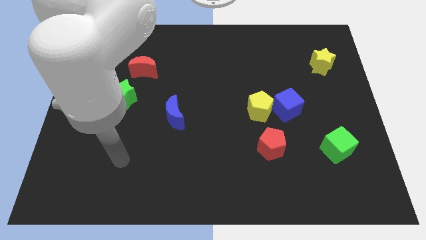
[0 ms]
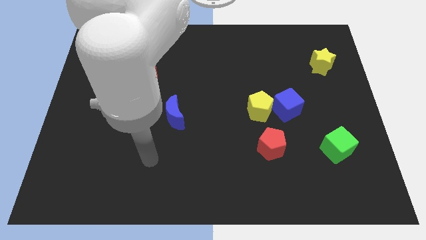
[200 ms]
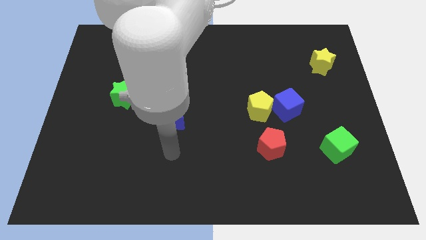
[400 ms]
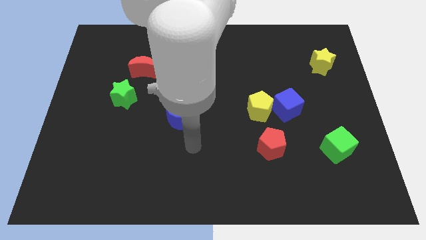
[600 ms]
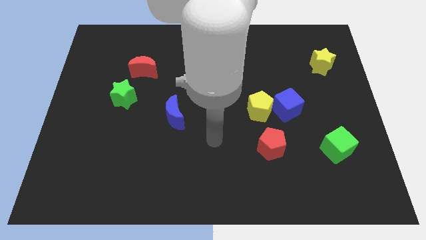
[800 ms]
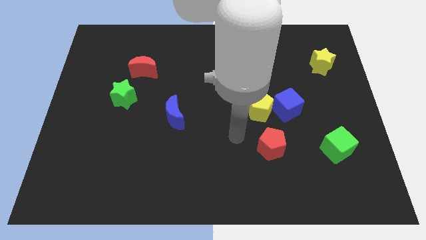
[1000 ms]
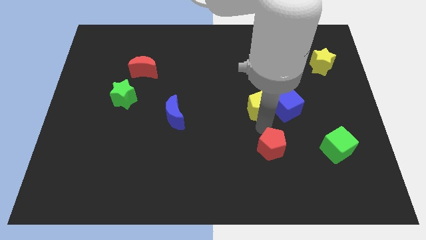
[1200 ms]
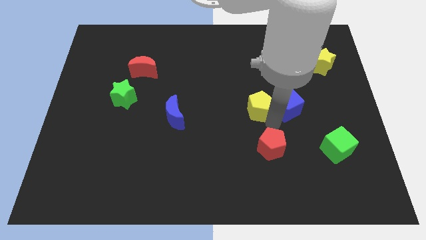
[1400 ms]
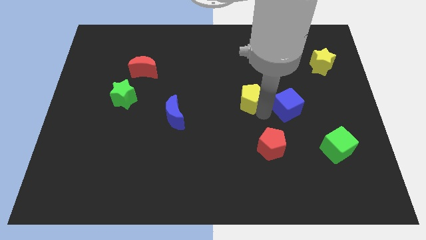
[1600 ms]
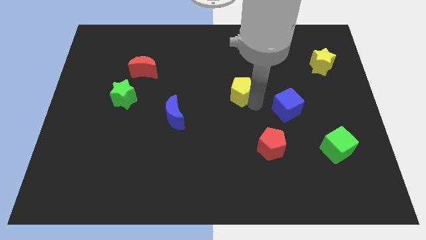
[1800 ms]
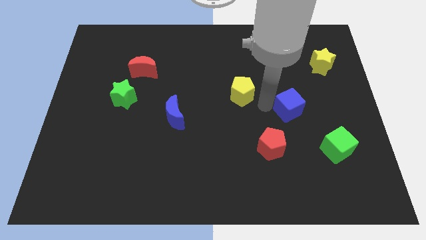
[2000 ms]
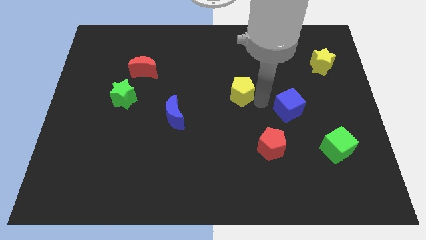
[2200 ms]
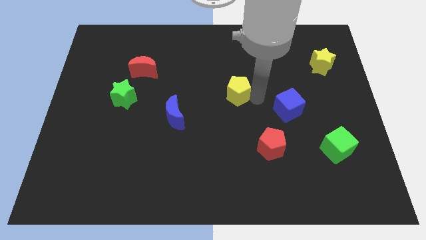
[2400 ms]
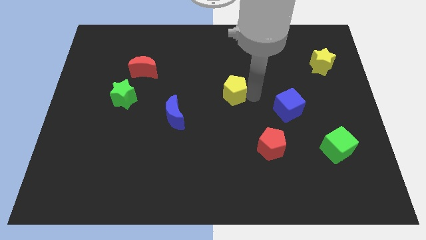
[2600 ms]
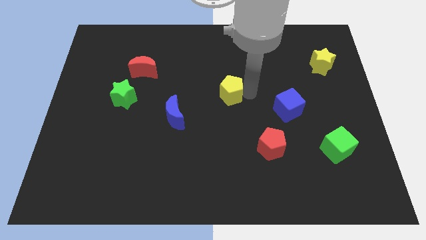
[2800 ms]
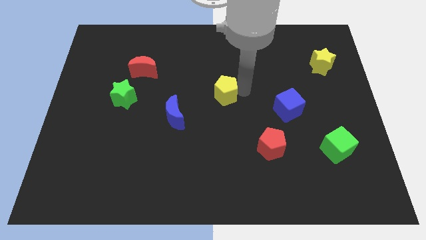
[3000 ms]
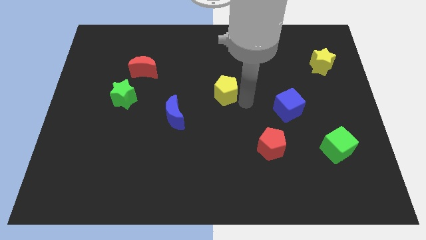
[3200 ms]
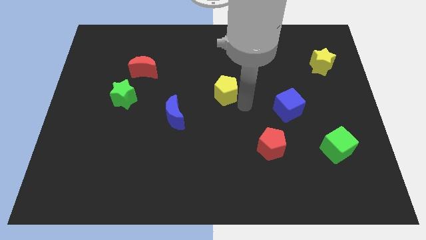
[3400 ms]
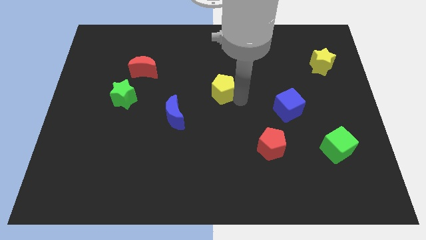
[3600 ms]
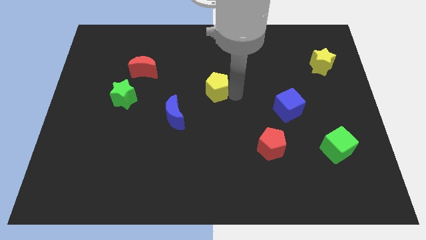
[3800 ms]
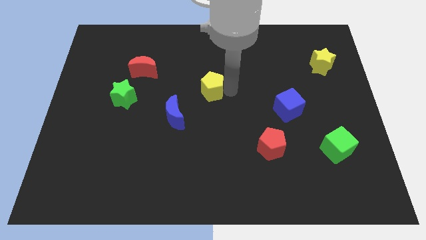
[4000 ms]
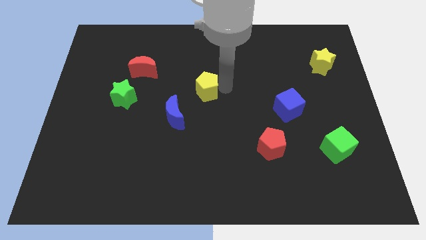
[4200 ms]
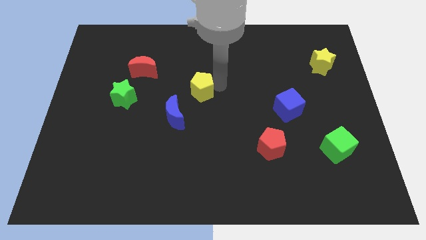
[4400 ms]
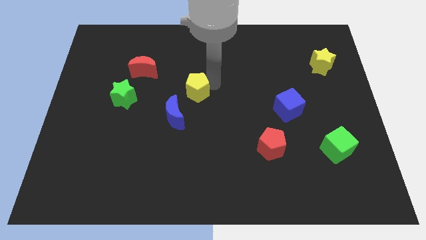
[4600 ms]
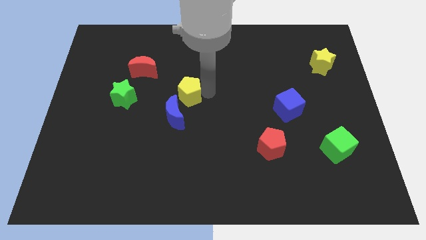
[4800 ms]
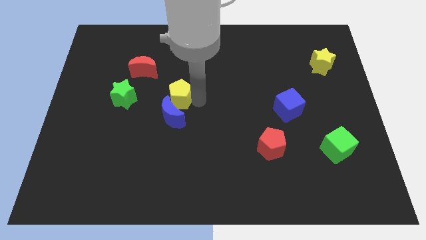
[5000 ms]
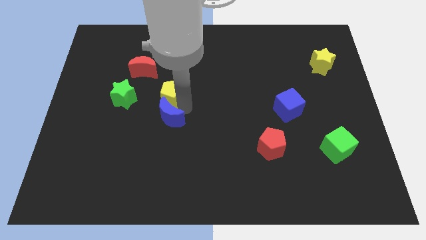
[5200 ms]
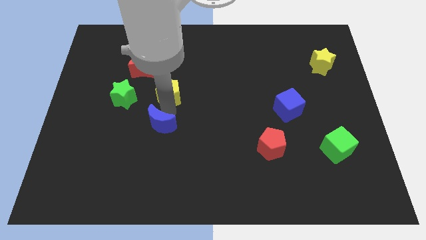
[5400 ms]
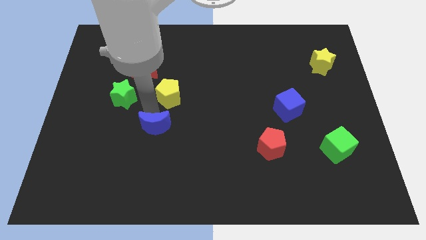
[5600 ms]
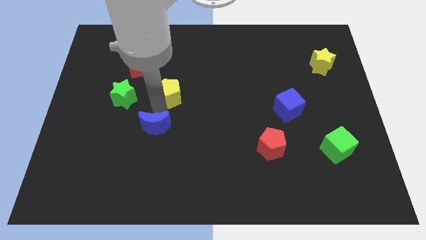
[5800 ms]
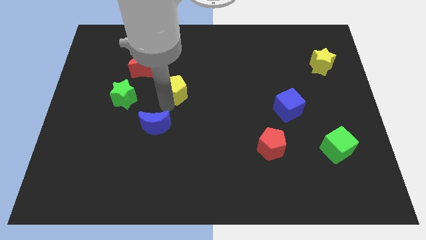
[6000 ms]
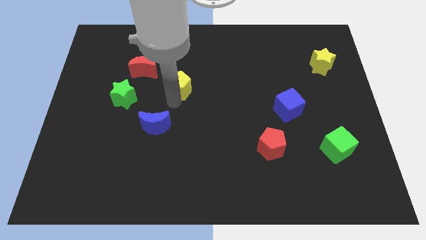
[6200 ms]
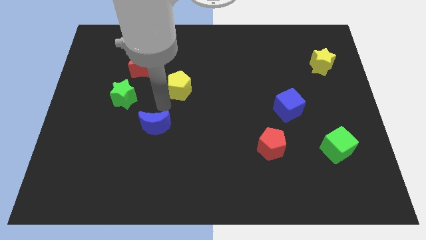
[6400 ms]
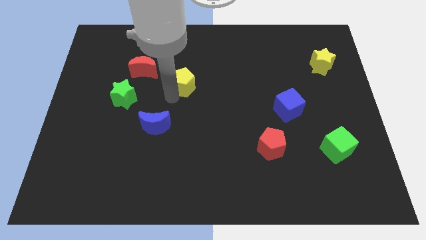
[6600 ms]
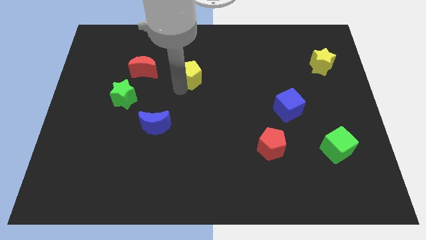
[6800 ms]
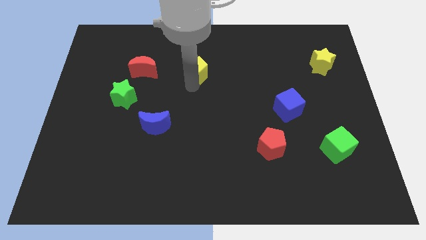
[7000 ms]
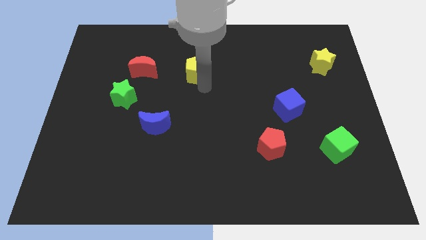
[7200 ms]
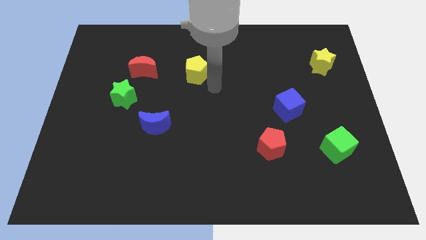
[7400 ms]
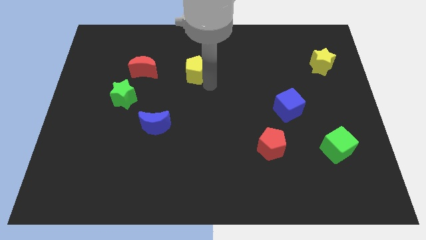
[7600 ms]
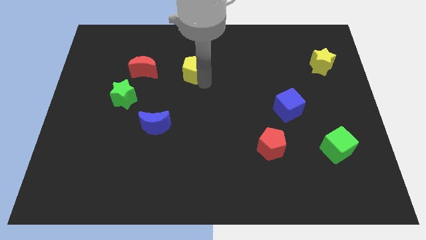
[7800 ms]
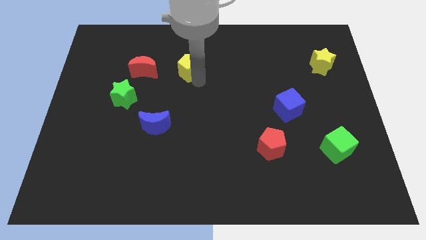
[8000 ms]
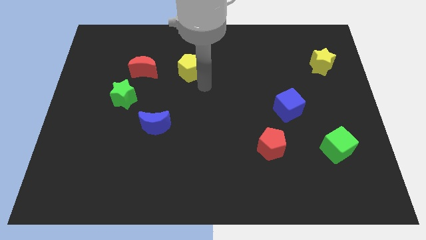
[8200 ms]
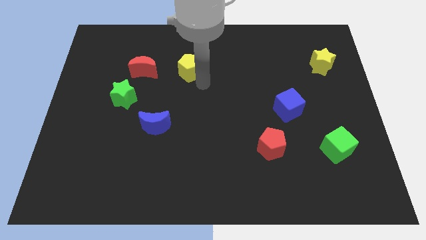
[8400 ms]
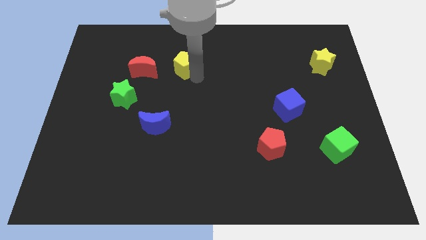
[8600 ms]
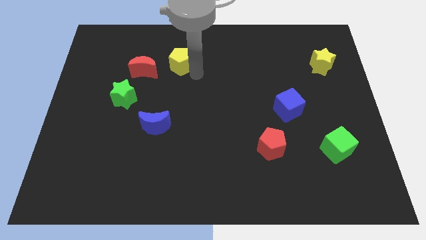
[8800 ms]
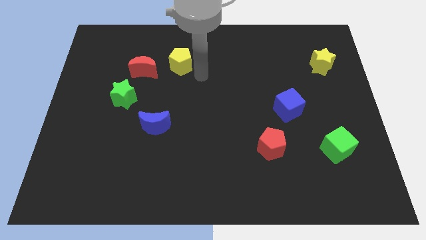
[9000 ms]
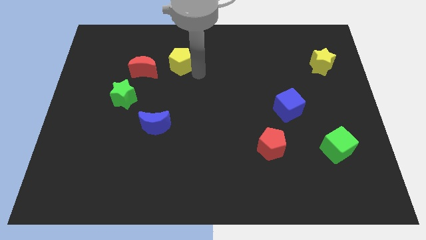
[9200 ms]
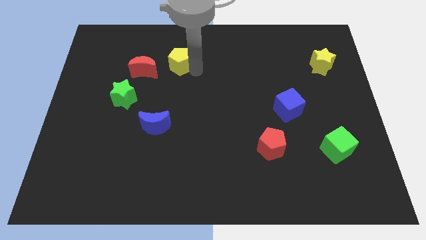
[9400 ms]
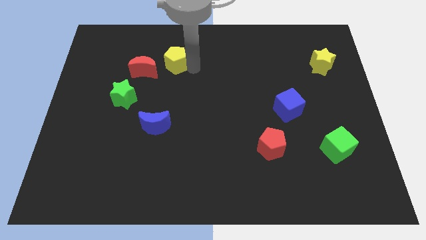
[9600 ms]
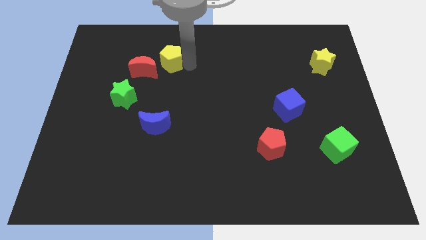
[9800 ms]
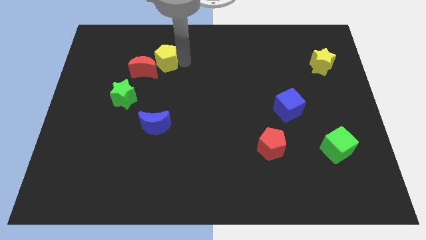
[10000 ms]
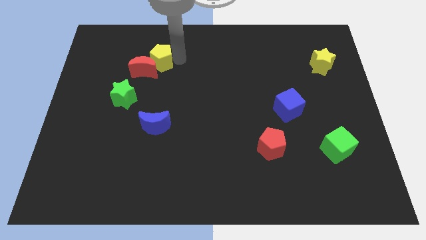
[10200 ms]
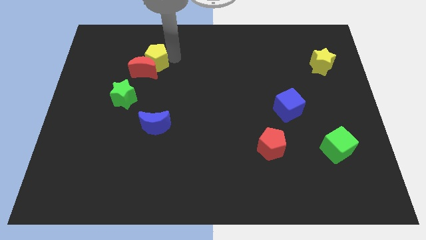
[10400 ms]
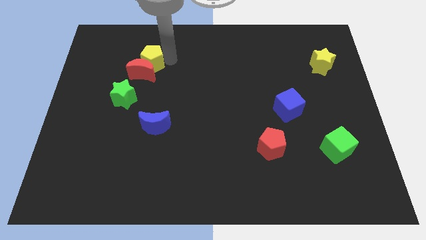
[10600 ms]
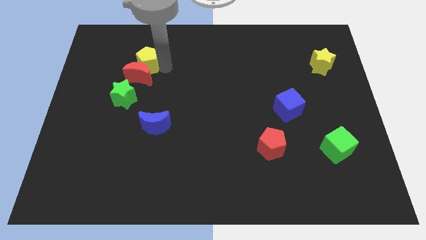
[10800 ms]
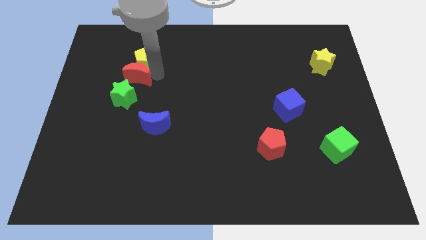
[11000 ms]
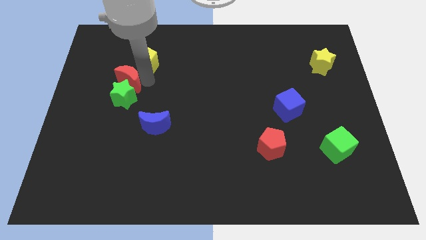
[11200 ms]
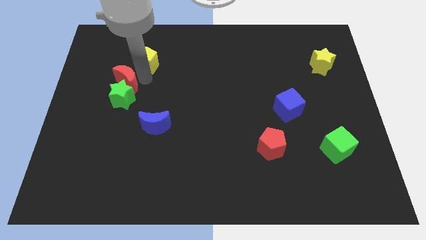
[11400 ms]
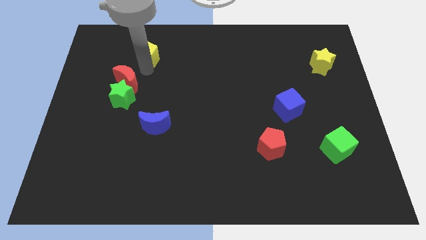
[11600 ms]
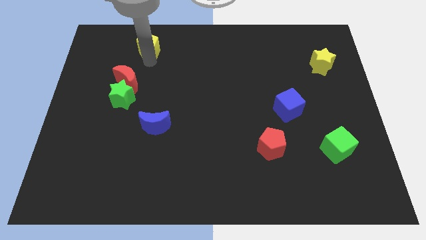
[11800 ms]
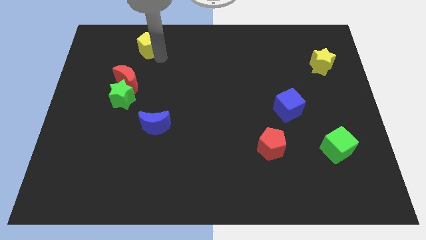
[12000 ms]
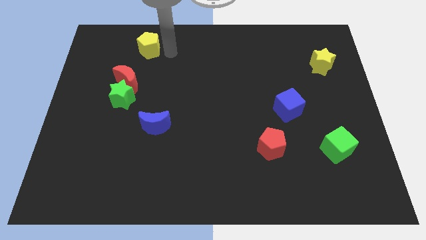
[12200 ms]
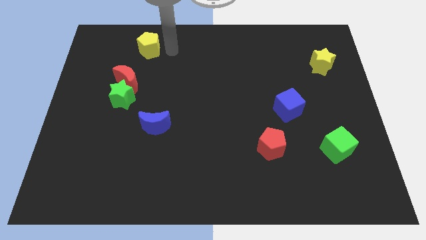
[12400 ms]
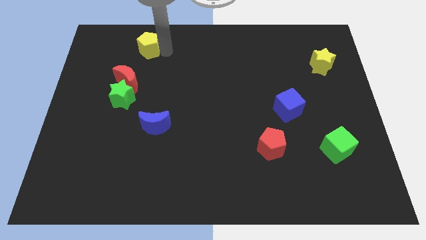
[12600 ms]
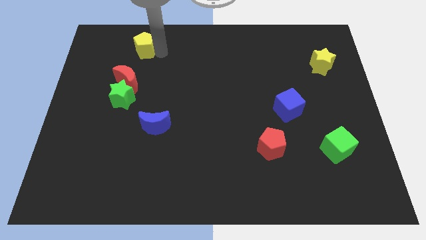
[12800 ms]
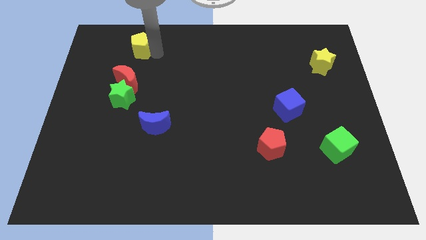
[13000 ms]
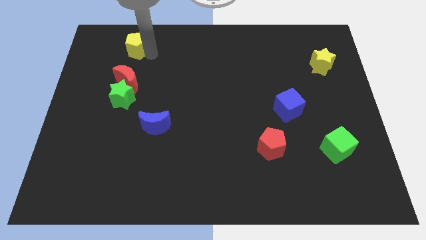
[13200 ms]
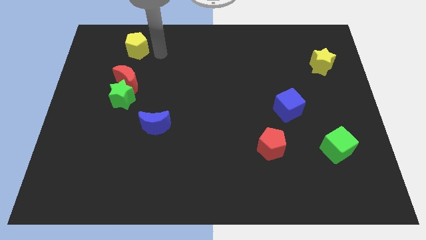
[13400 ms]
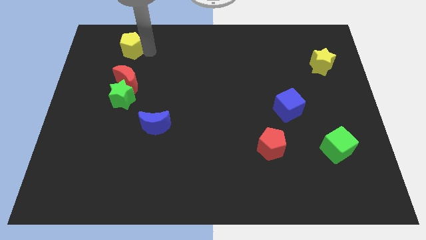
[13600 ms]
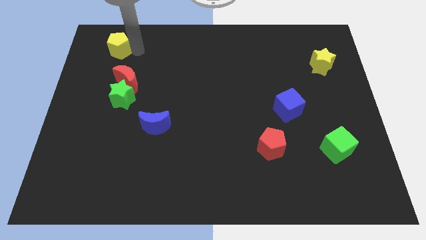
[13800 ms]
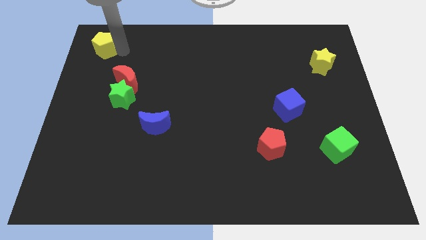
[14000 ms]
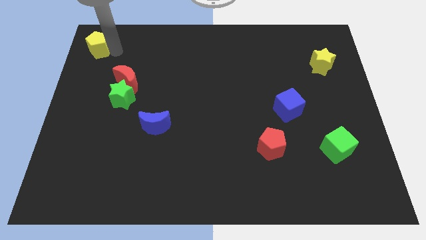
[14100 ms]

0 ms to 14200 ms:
slide the yellow pentagon to the top left corner

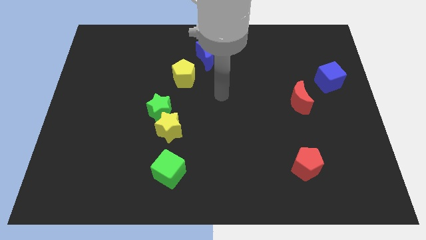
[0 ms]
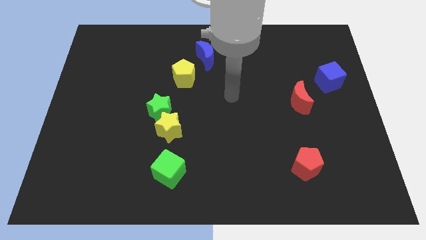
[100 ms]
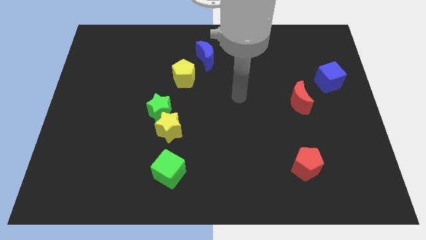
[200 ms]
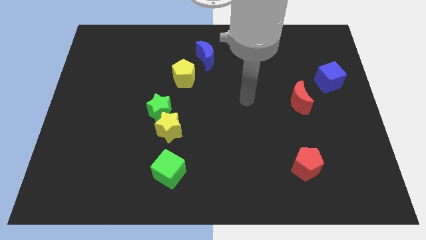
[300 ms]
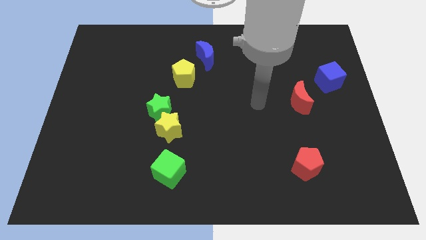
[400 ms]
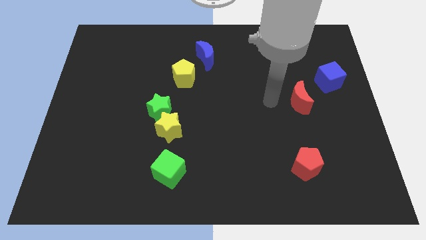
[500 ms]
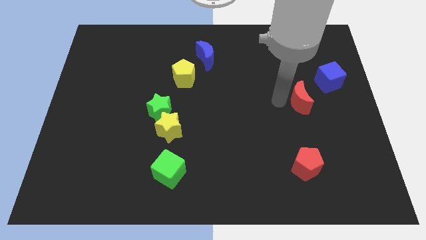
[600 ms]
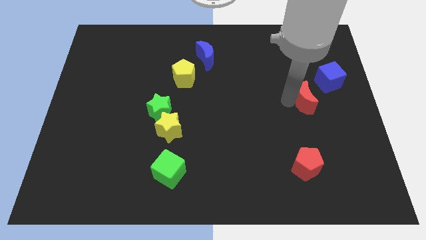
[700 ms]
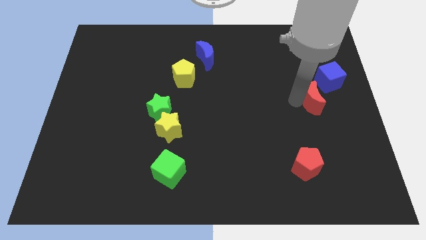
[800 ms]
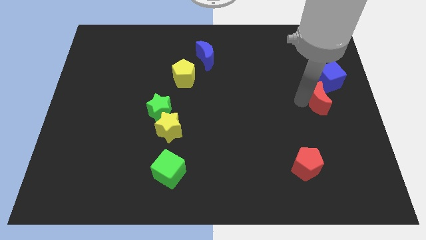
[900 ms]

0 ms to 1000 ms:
push the red moon to the center right
